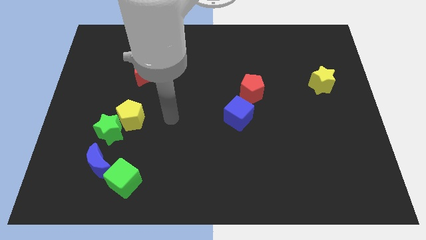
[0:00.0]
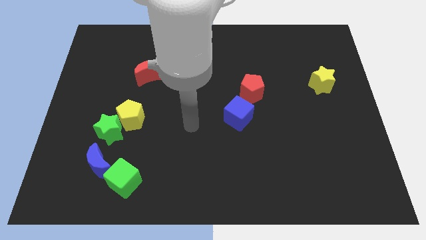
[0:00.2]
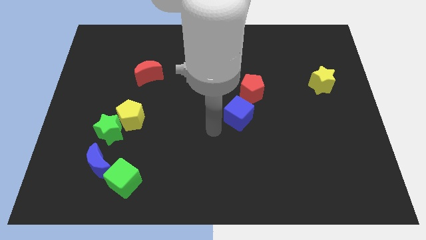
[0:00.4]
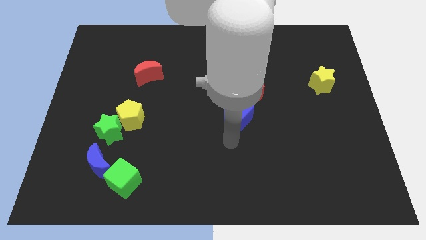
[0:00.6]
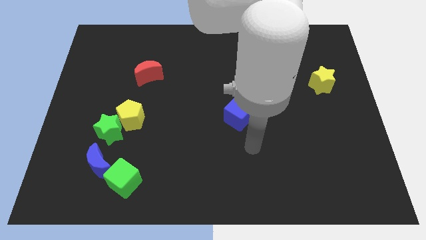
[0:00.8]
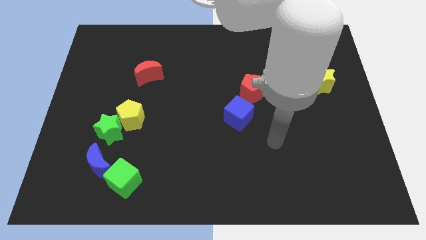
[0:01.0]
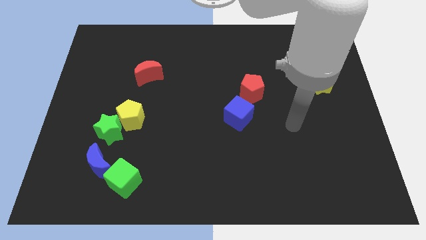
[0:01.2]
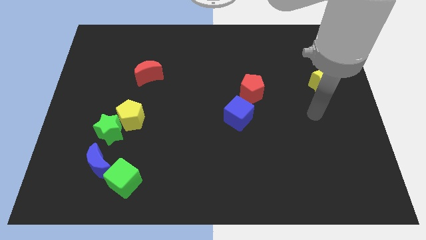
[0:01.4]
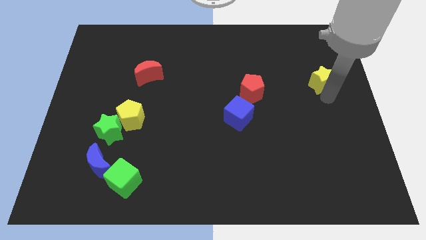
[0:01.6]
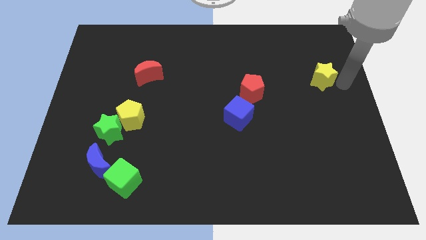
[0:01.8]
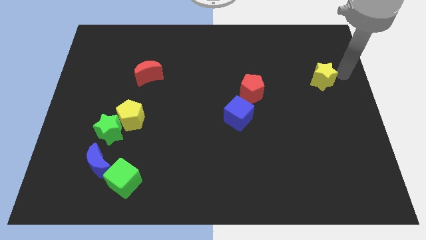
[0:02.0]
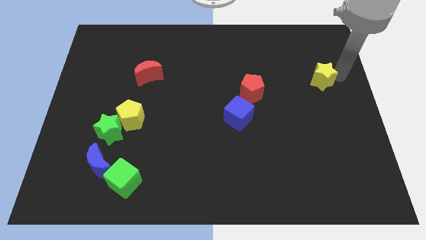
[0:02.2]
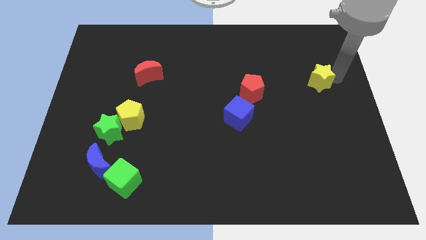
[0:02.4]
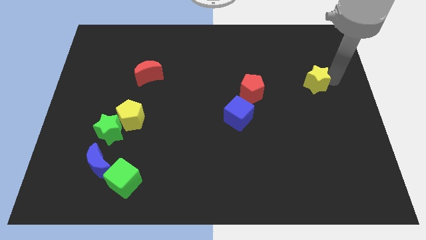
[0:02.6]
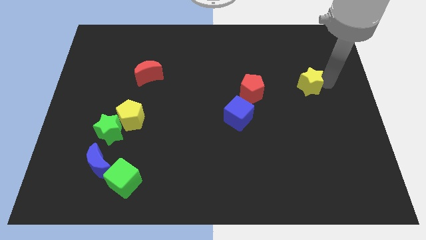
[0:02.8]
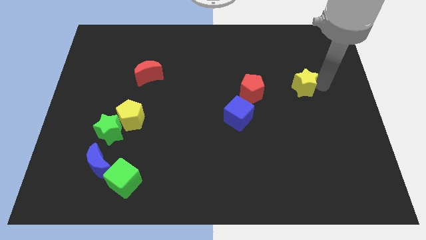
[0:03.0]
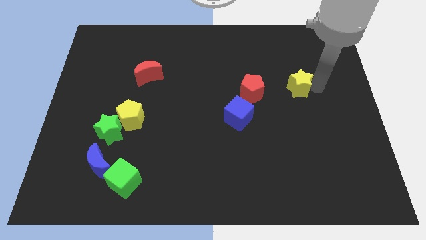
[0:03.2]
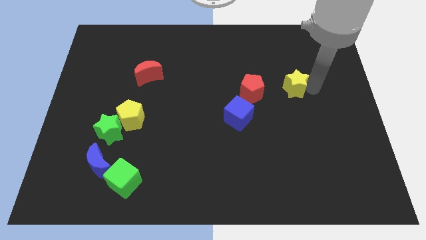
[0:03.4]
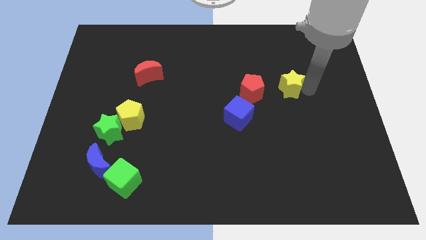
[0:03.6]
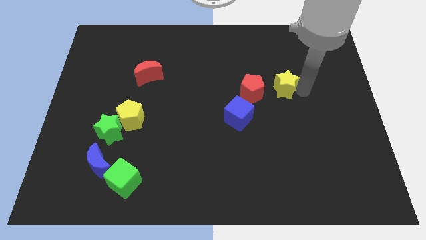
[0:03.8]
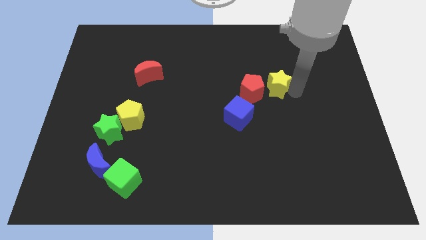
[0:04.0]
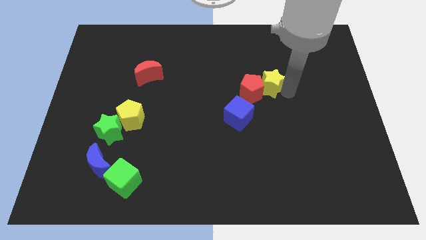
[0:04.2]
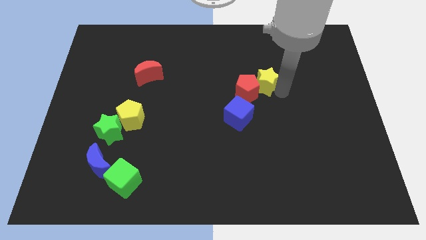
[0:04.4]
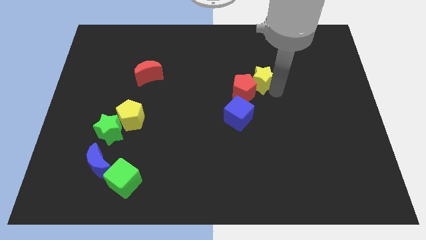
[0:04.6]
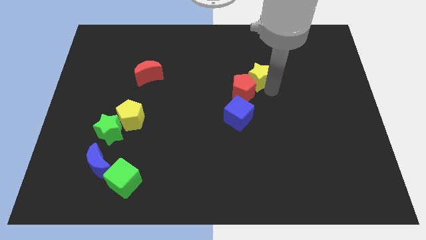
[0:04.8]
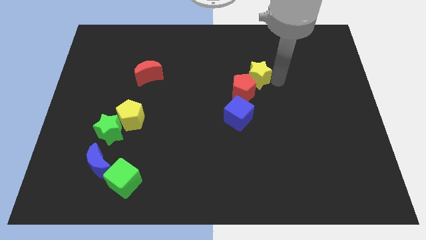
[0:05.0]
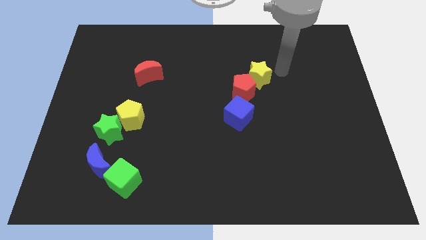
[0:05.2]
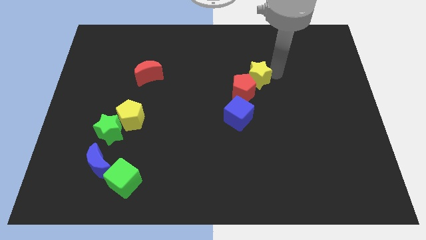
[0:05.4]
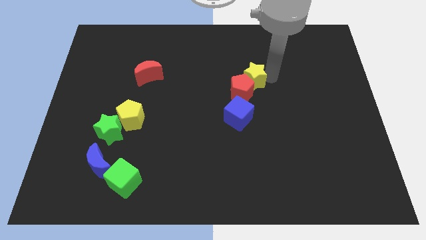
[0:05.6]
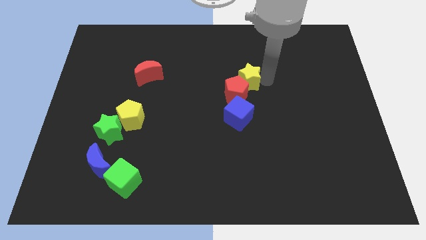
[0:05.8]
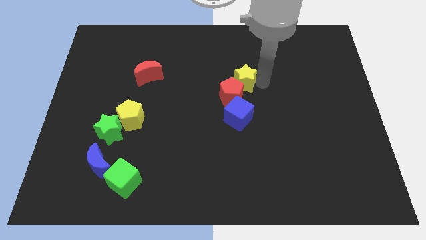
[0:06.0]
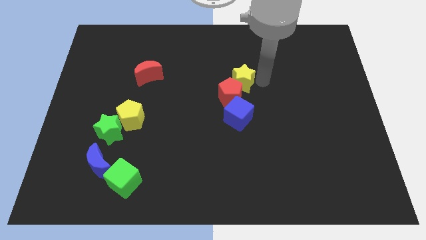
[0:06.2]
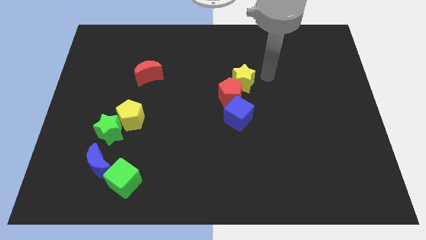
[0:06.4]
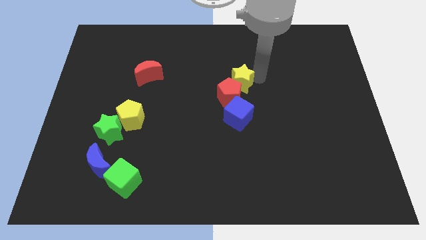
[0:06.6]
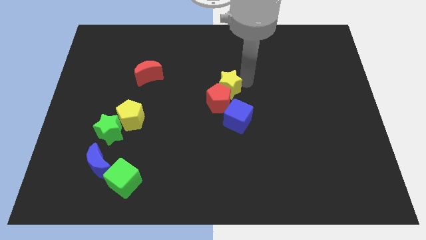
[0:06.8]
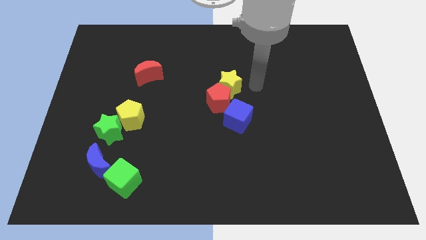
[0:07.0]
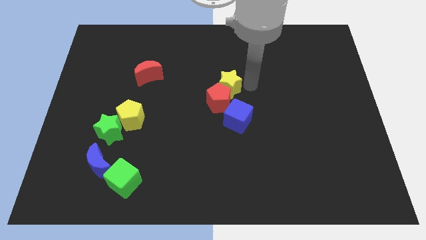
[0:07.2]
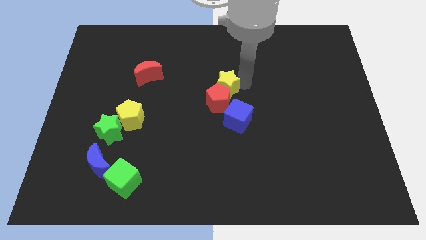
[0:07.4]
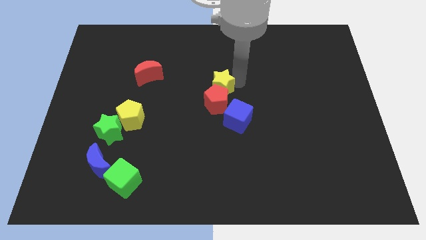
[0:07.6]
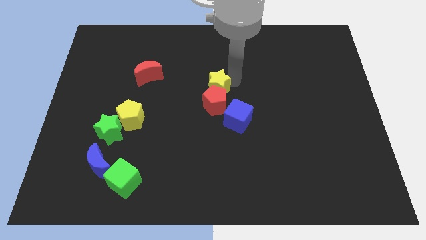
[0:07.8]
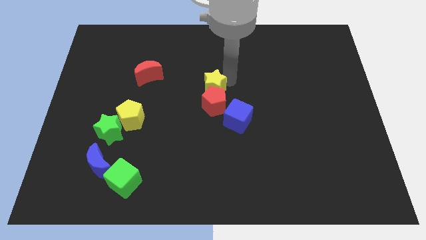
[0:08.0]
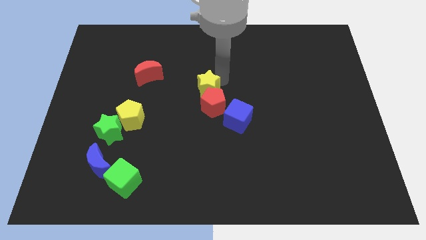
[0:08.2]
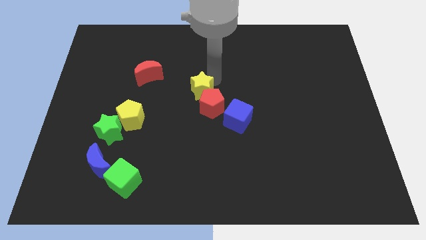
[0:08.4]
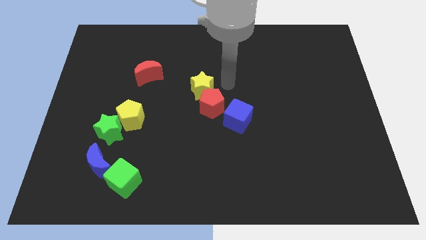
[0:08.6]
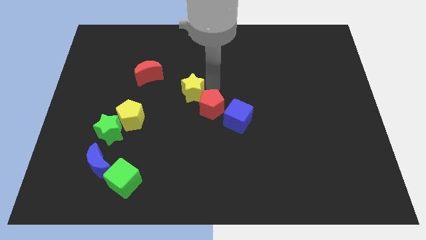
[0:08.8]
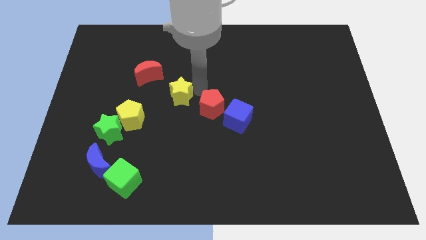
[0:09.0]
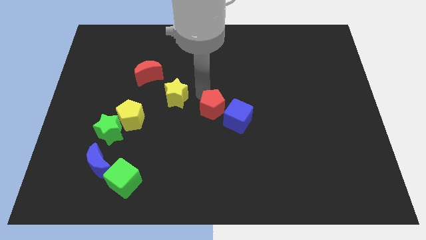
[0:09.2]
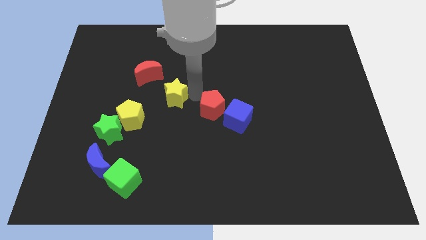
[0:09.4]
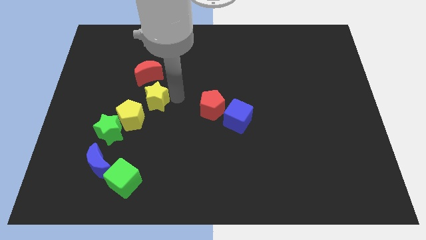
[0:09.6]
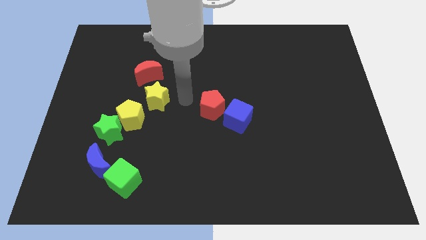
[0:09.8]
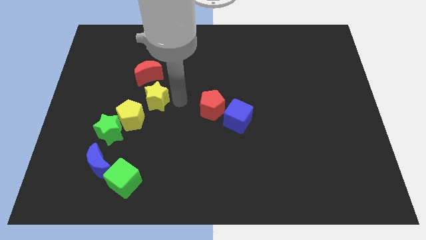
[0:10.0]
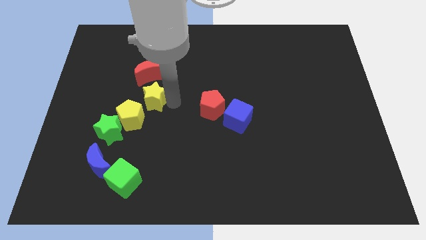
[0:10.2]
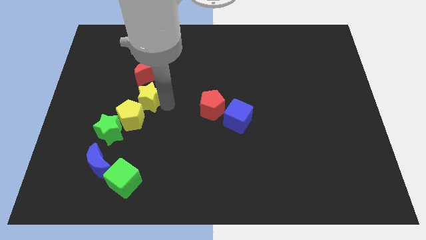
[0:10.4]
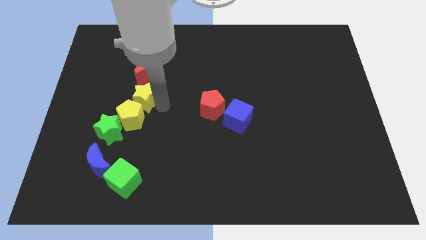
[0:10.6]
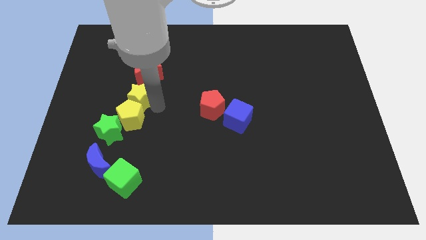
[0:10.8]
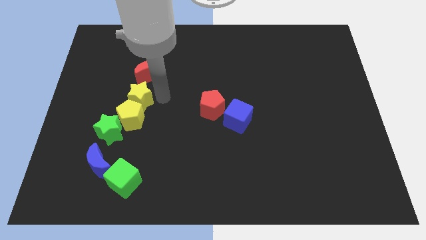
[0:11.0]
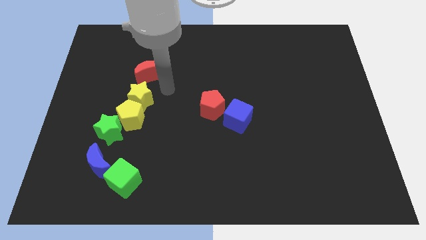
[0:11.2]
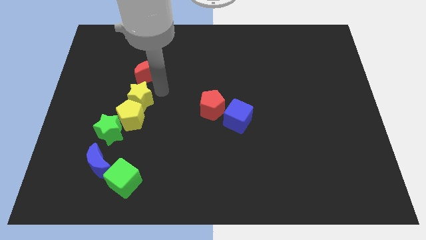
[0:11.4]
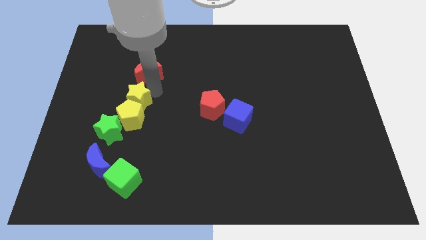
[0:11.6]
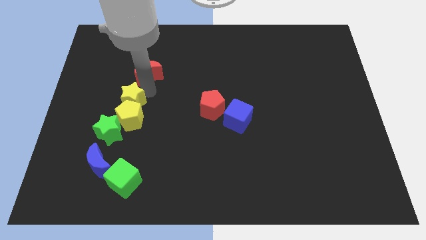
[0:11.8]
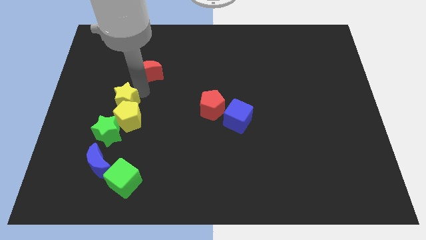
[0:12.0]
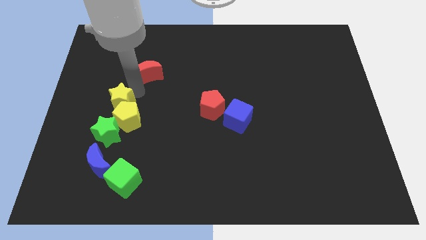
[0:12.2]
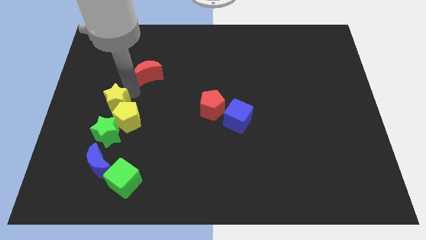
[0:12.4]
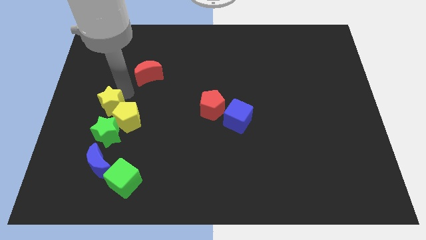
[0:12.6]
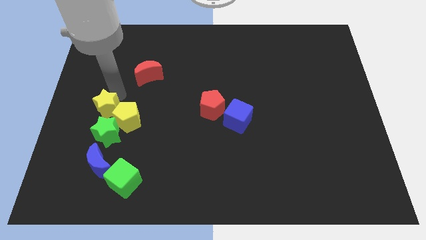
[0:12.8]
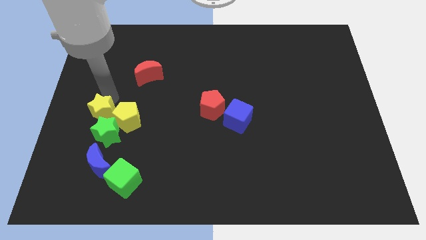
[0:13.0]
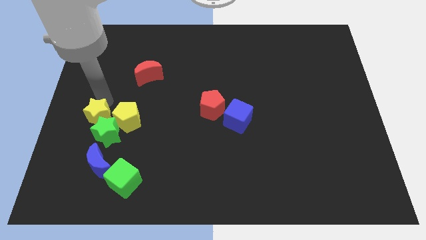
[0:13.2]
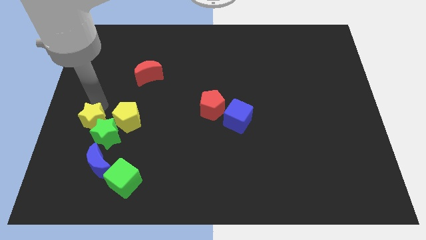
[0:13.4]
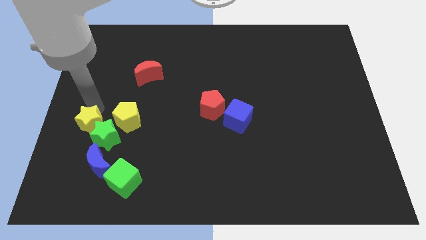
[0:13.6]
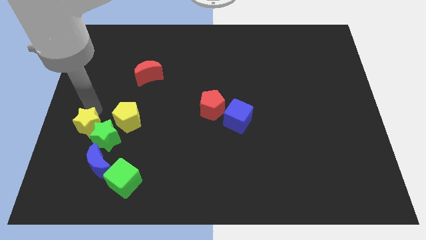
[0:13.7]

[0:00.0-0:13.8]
move the yellow star diagonally down and to the left of the yellow pentagon
